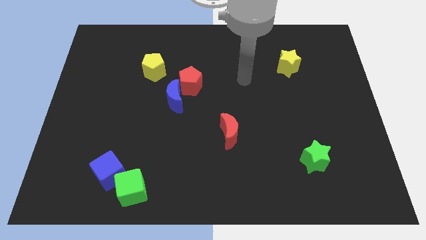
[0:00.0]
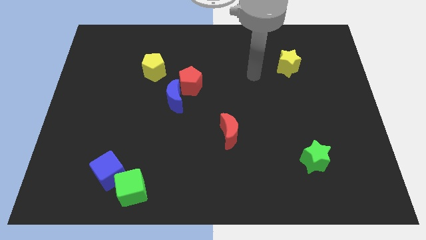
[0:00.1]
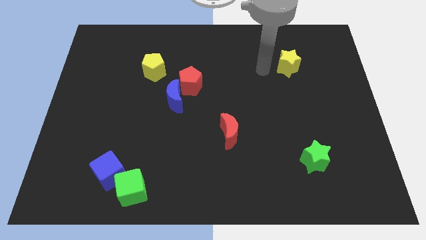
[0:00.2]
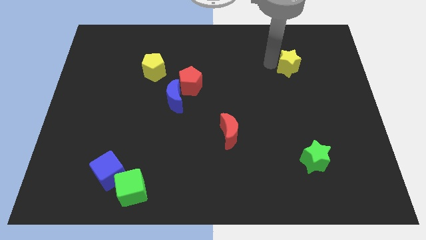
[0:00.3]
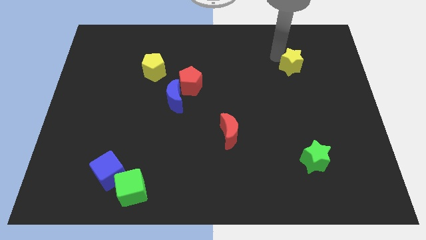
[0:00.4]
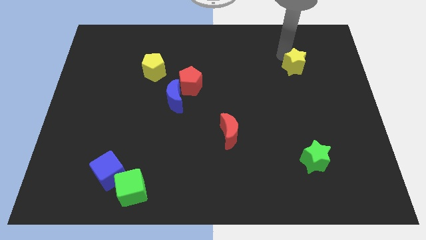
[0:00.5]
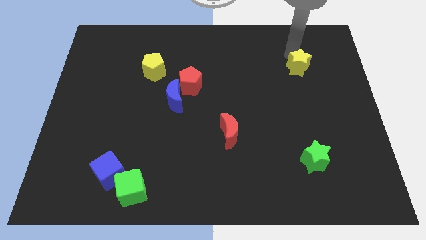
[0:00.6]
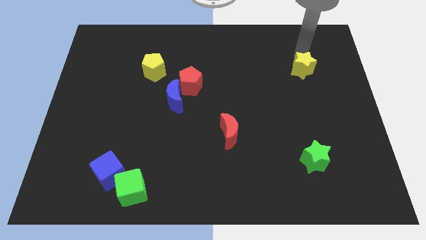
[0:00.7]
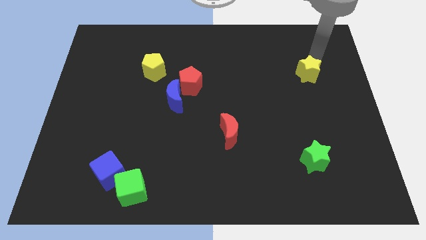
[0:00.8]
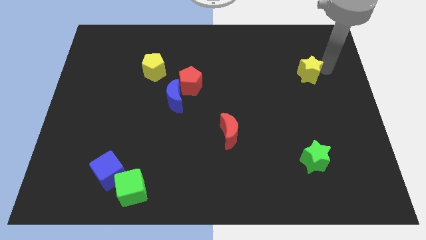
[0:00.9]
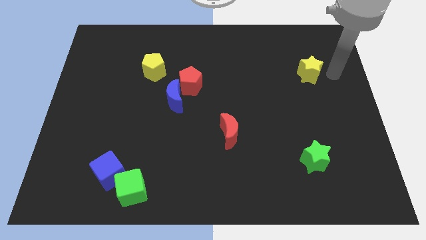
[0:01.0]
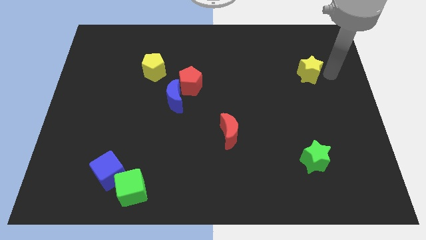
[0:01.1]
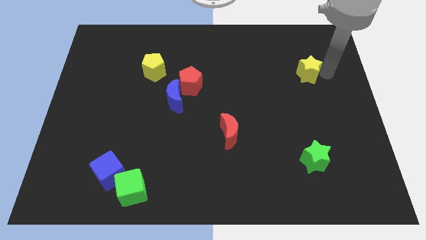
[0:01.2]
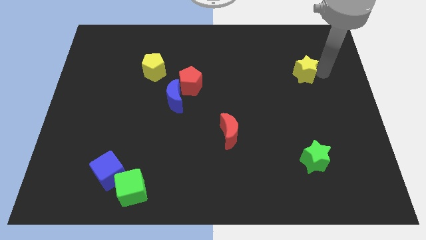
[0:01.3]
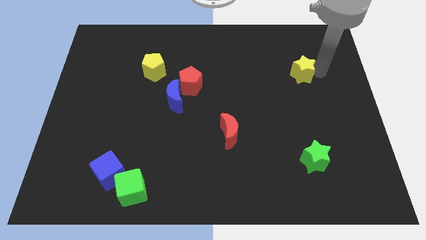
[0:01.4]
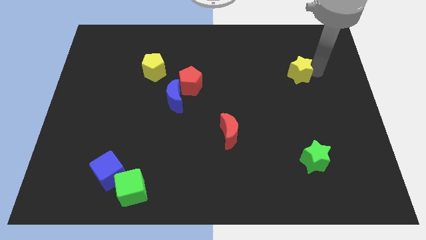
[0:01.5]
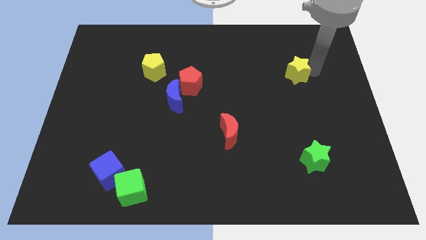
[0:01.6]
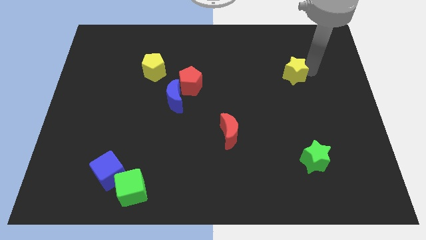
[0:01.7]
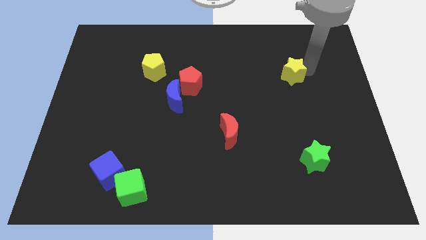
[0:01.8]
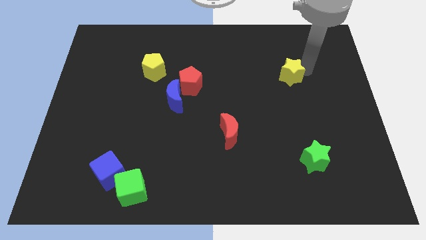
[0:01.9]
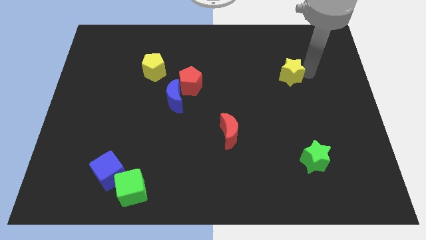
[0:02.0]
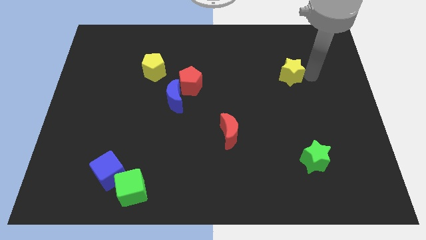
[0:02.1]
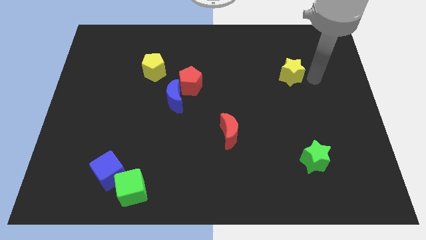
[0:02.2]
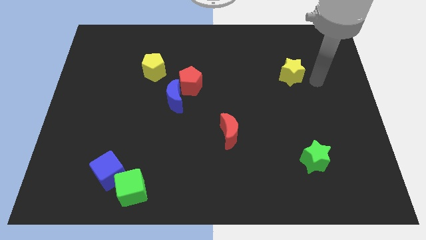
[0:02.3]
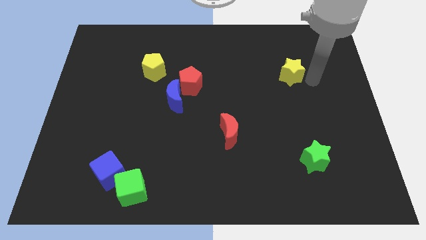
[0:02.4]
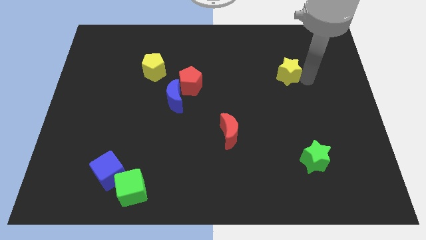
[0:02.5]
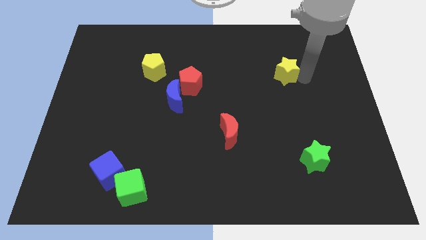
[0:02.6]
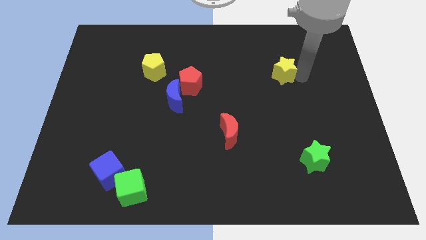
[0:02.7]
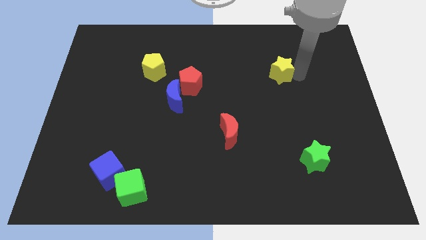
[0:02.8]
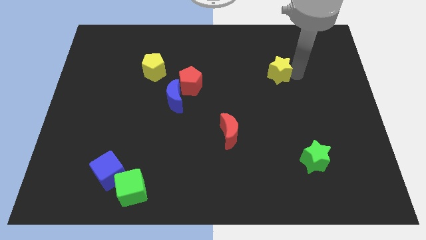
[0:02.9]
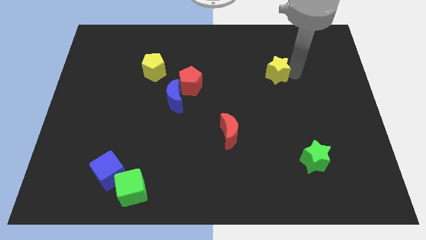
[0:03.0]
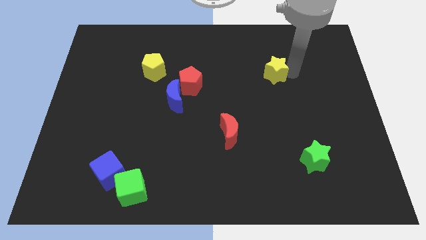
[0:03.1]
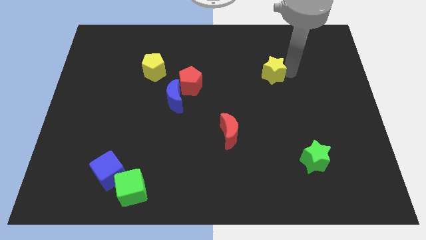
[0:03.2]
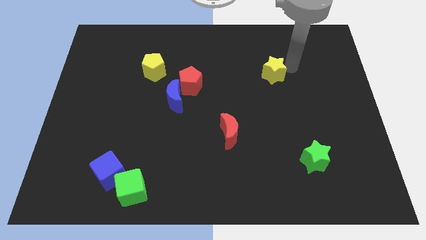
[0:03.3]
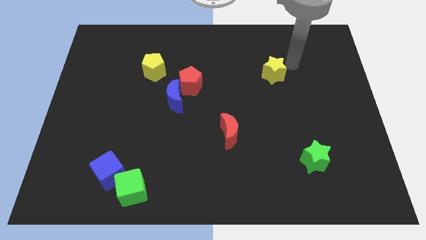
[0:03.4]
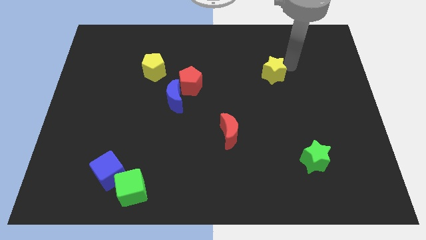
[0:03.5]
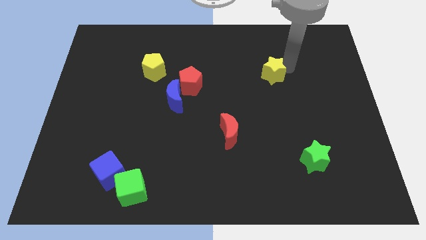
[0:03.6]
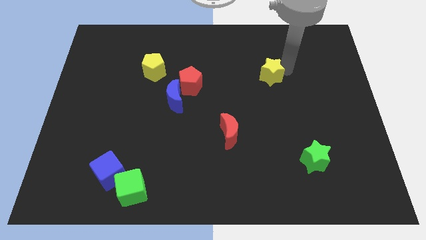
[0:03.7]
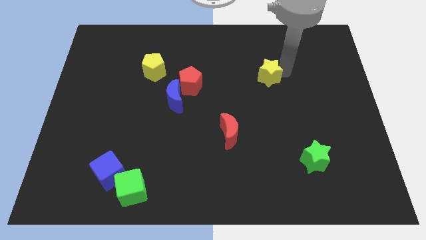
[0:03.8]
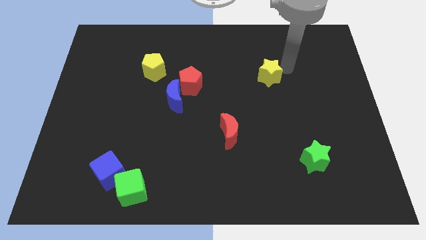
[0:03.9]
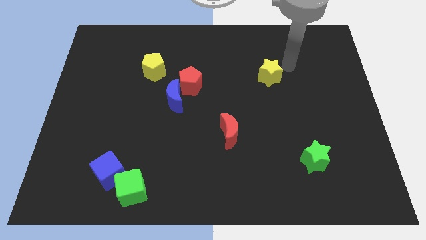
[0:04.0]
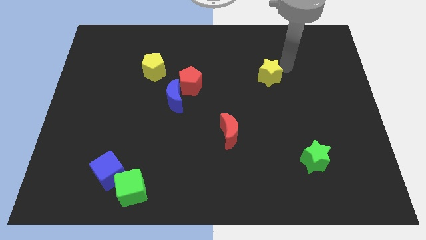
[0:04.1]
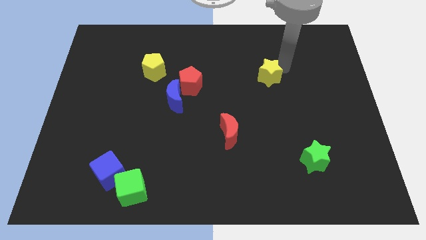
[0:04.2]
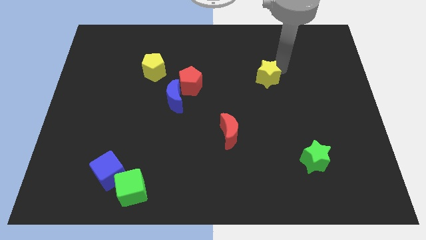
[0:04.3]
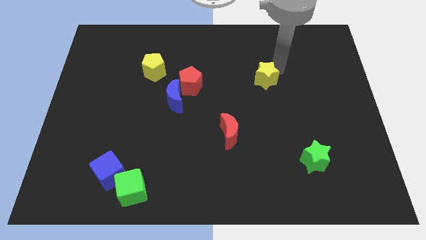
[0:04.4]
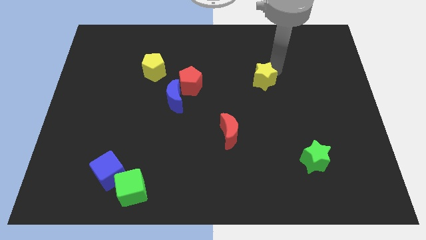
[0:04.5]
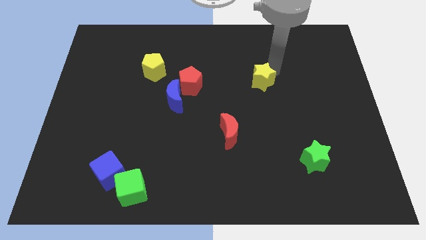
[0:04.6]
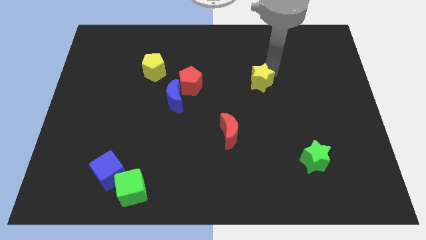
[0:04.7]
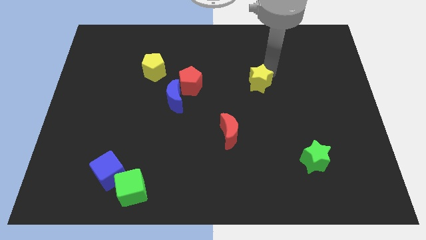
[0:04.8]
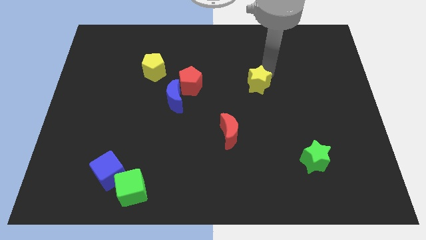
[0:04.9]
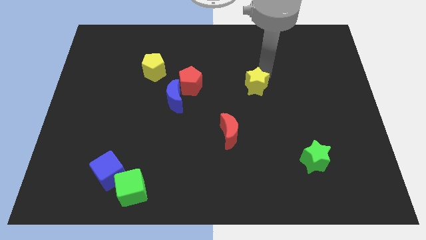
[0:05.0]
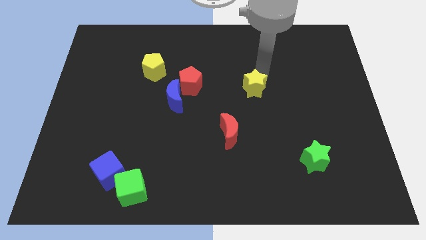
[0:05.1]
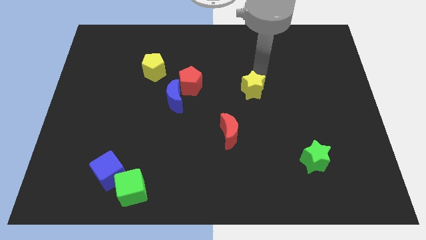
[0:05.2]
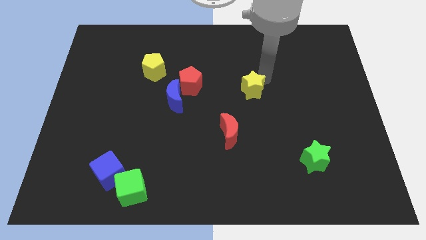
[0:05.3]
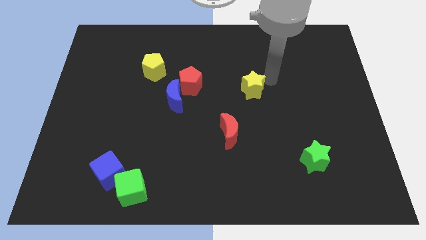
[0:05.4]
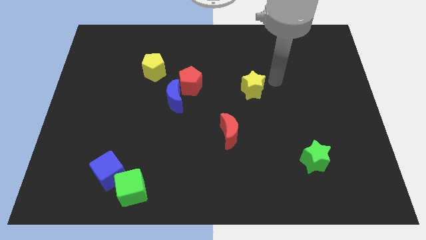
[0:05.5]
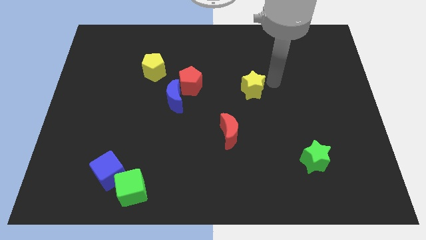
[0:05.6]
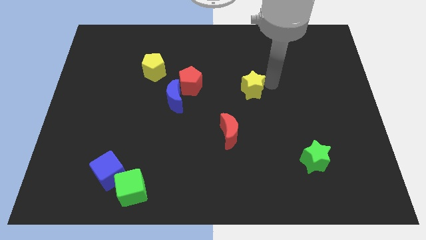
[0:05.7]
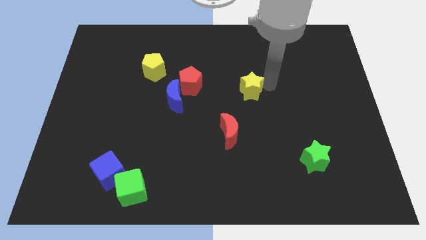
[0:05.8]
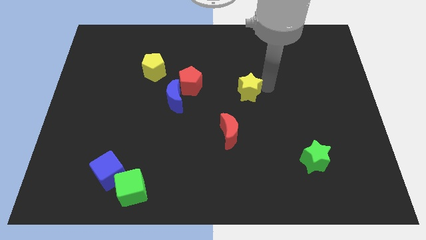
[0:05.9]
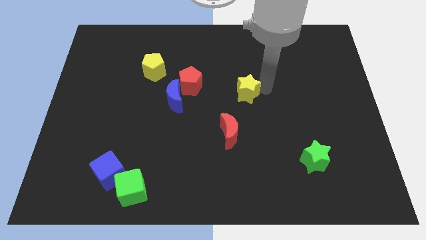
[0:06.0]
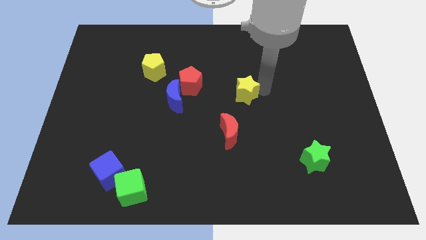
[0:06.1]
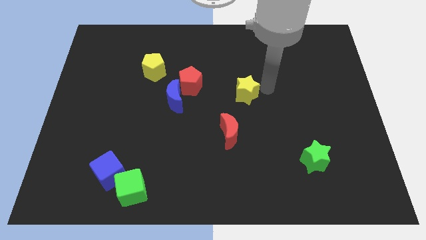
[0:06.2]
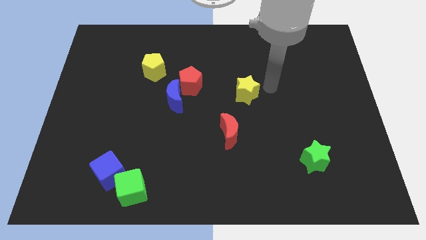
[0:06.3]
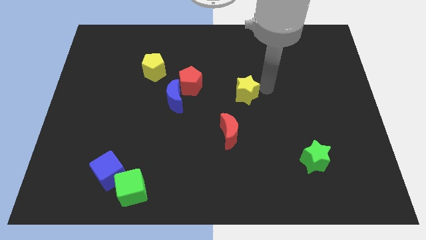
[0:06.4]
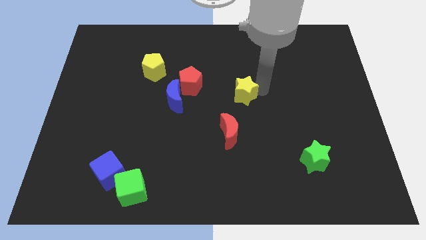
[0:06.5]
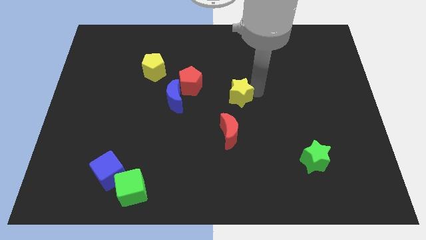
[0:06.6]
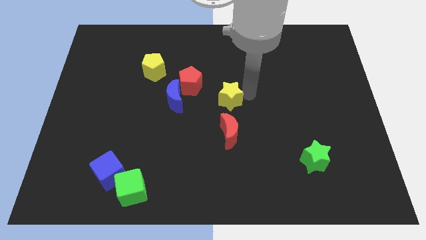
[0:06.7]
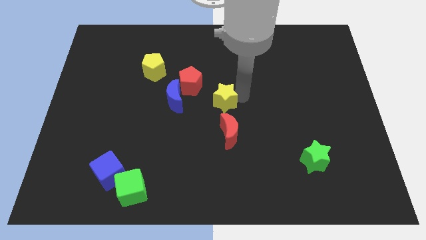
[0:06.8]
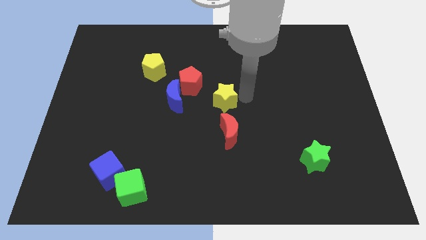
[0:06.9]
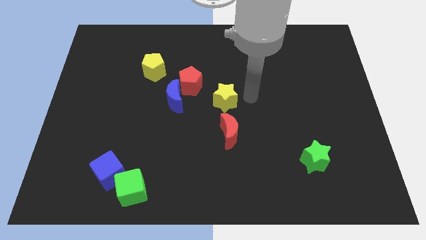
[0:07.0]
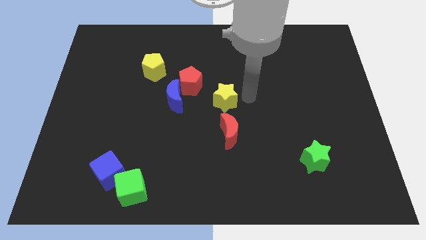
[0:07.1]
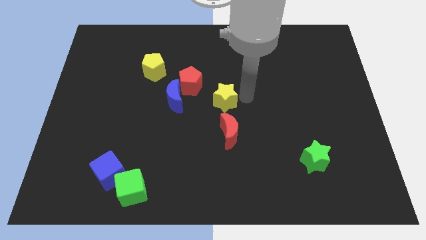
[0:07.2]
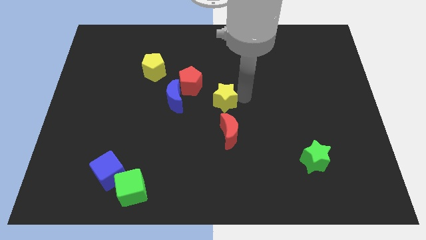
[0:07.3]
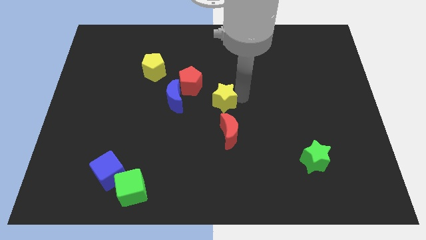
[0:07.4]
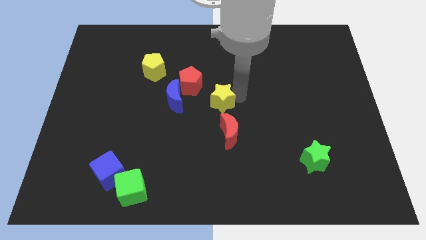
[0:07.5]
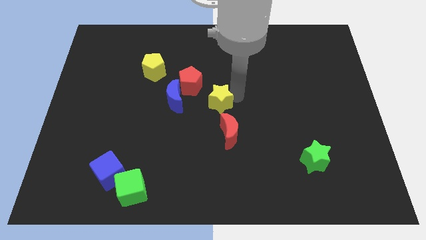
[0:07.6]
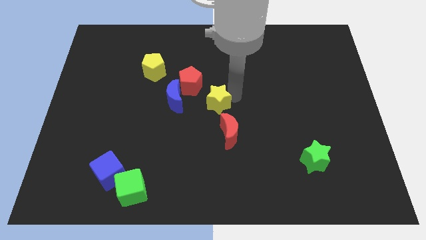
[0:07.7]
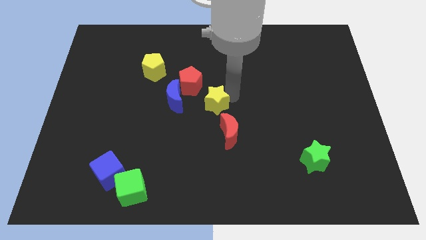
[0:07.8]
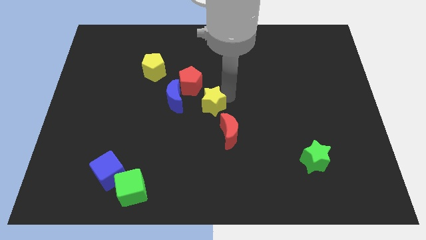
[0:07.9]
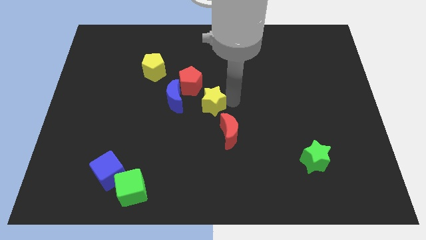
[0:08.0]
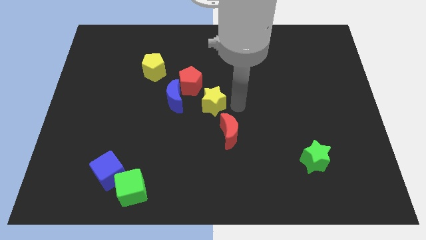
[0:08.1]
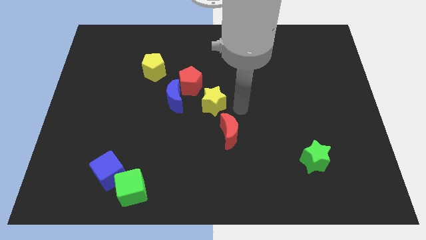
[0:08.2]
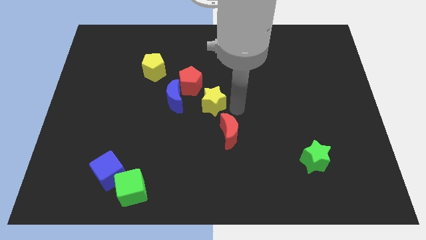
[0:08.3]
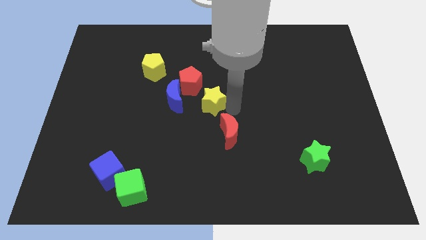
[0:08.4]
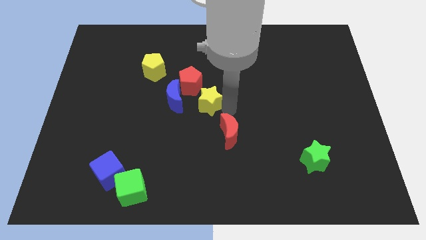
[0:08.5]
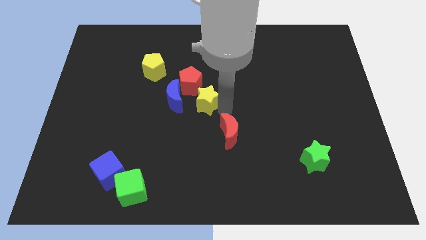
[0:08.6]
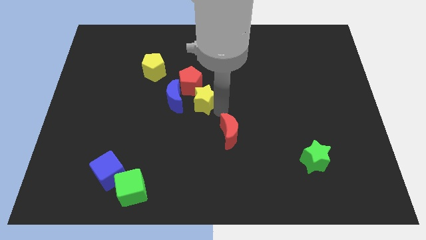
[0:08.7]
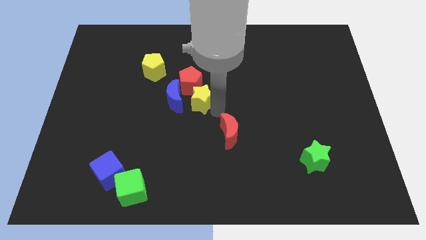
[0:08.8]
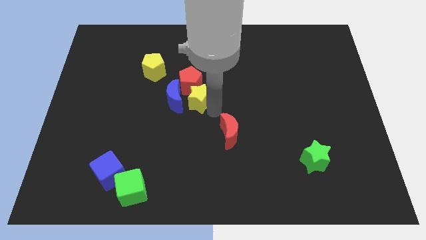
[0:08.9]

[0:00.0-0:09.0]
move the yellow star close to the blue moon
